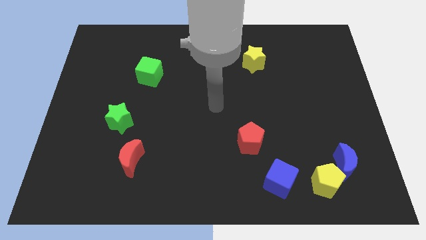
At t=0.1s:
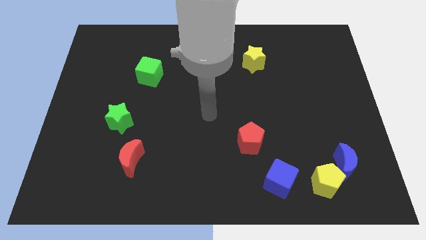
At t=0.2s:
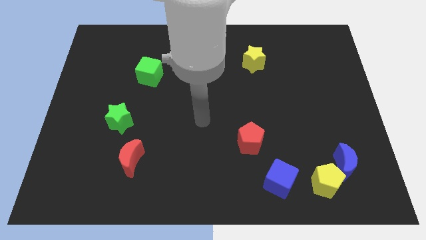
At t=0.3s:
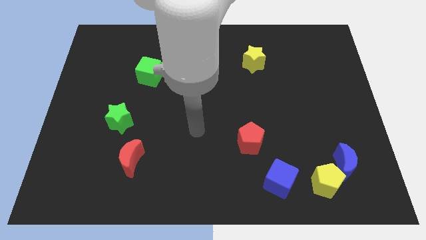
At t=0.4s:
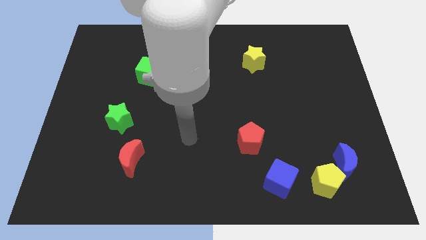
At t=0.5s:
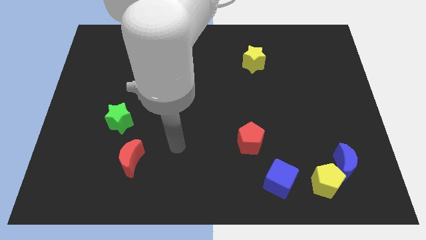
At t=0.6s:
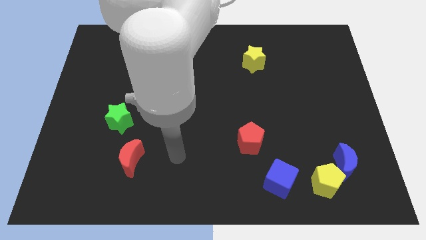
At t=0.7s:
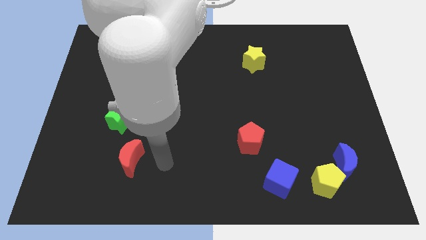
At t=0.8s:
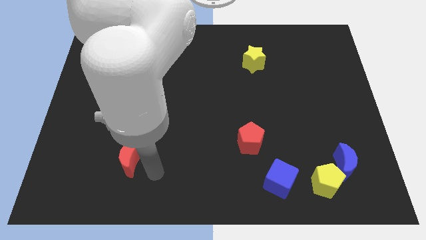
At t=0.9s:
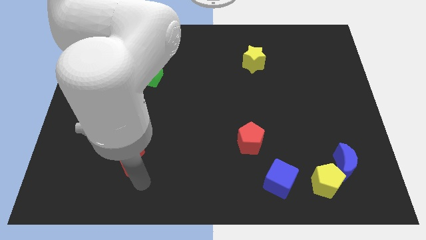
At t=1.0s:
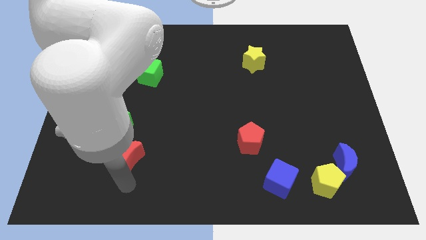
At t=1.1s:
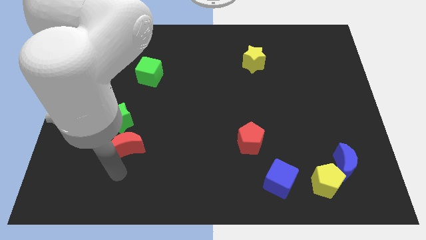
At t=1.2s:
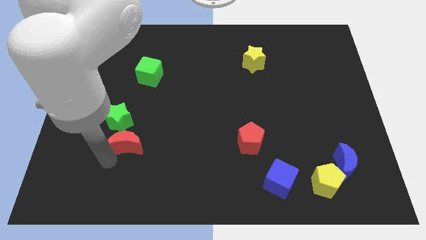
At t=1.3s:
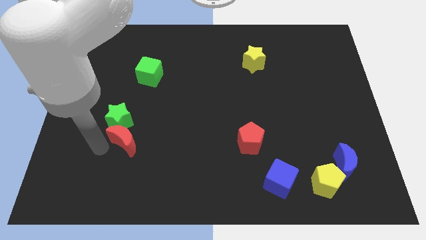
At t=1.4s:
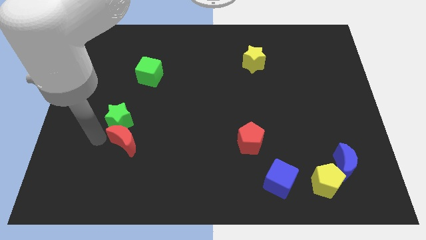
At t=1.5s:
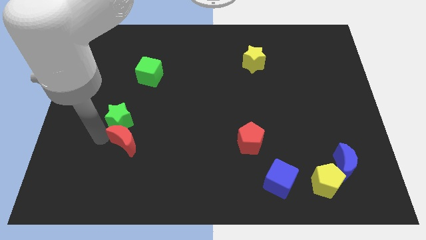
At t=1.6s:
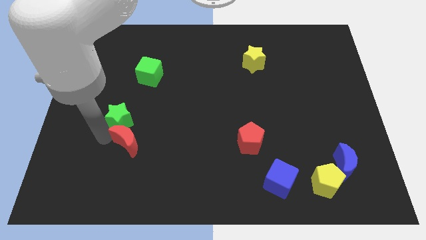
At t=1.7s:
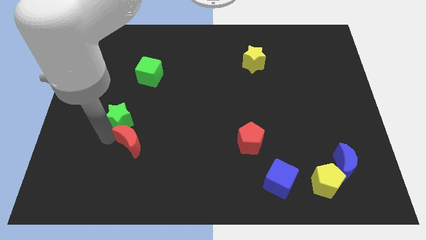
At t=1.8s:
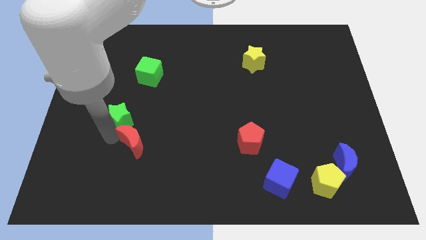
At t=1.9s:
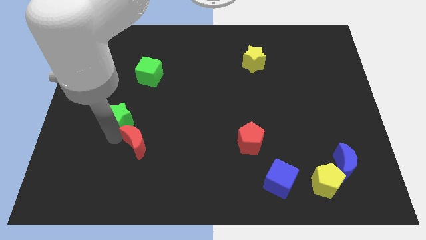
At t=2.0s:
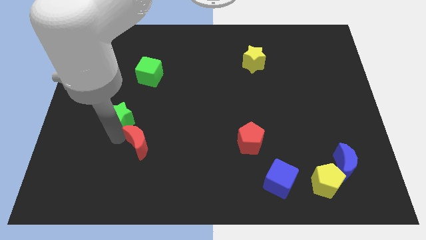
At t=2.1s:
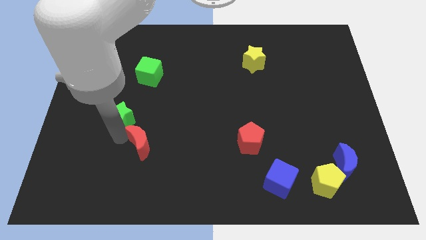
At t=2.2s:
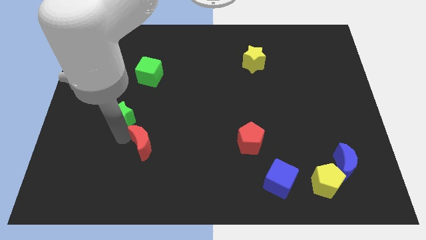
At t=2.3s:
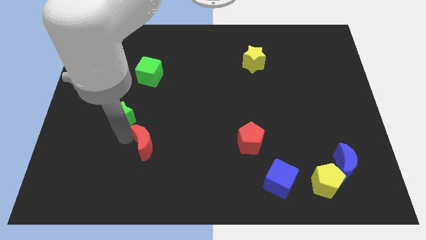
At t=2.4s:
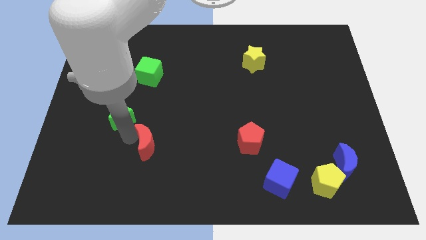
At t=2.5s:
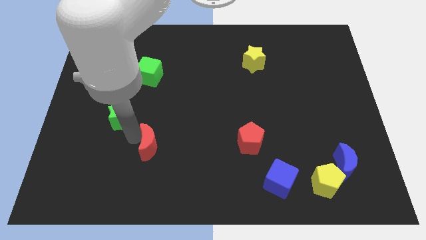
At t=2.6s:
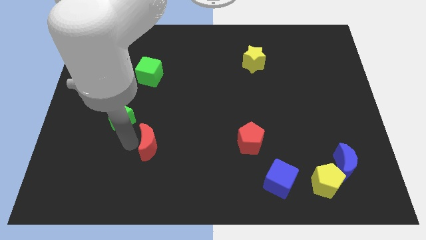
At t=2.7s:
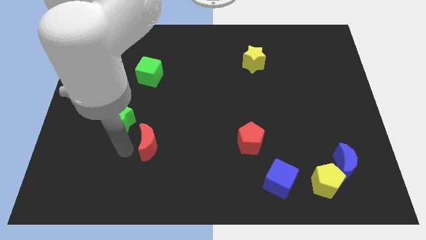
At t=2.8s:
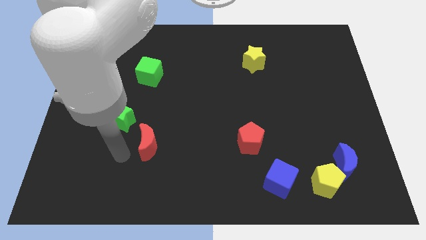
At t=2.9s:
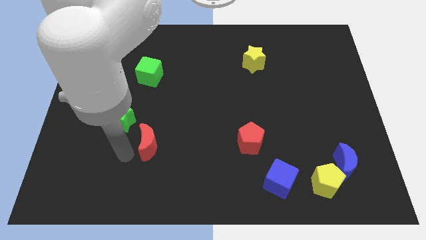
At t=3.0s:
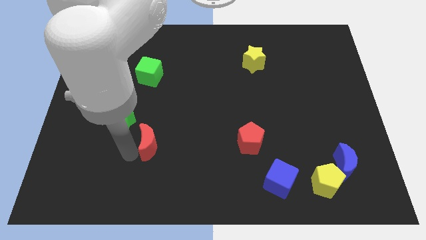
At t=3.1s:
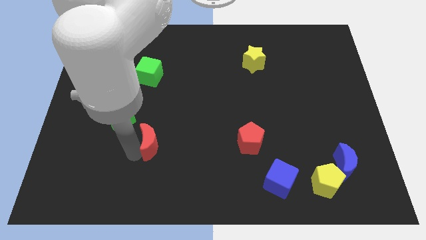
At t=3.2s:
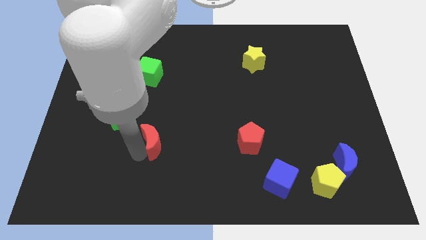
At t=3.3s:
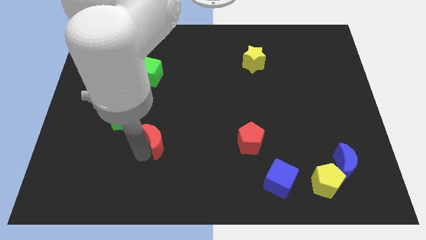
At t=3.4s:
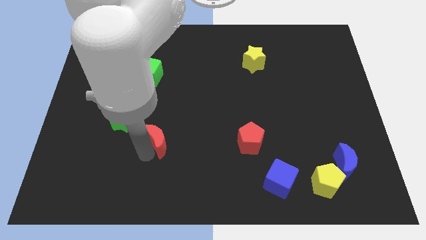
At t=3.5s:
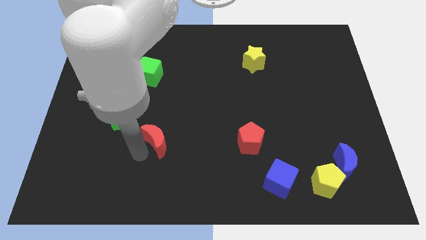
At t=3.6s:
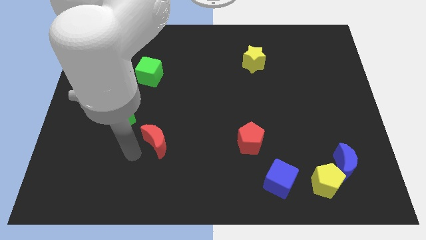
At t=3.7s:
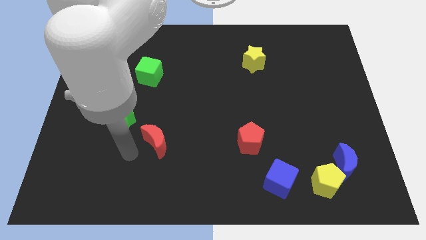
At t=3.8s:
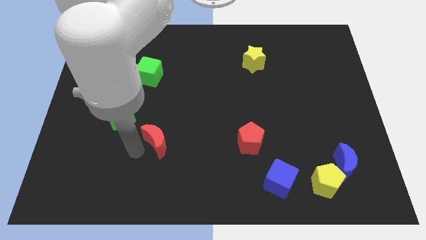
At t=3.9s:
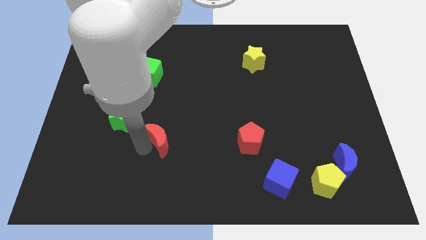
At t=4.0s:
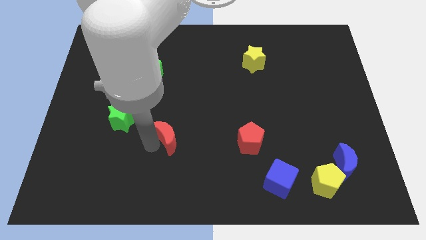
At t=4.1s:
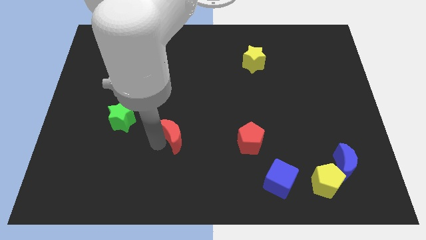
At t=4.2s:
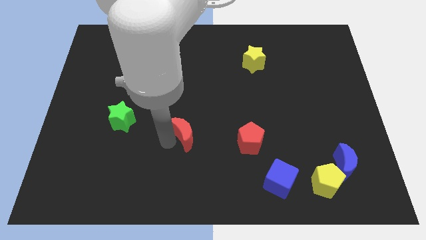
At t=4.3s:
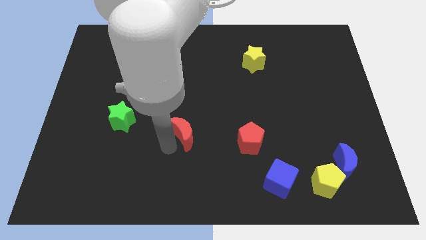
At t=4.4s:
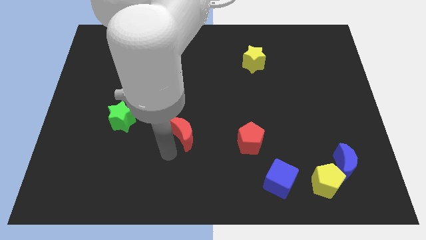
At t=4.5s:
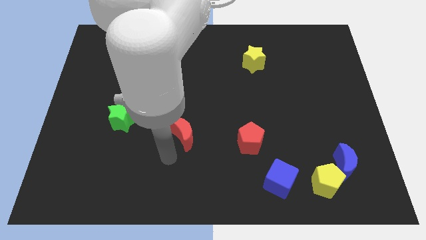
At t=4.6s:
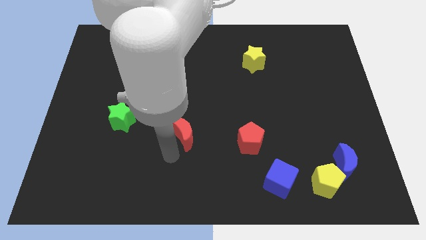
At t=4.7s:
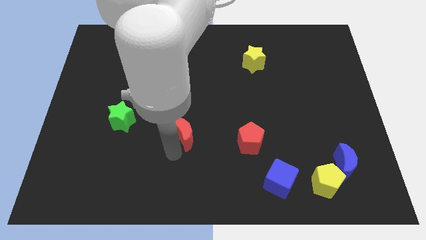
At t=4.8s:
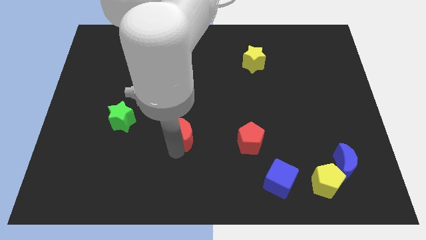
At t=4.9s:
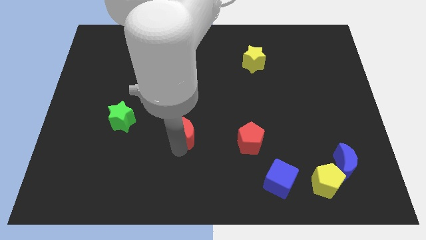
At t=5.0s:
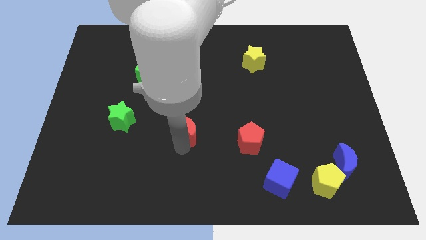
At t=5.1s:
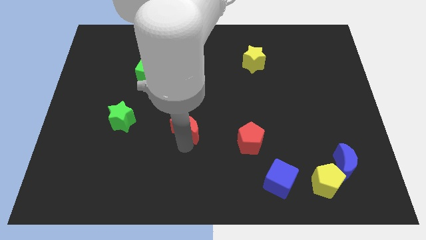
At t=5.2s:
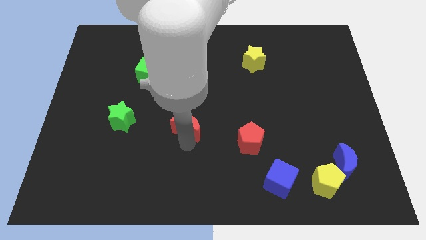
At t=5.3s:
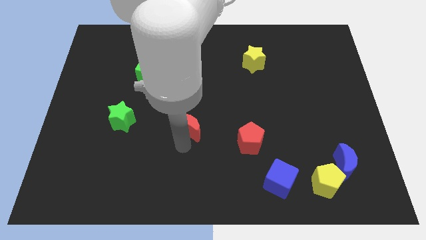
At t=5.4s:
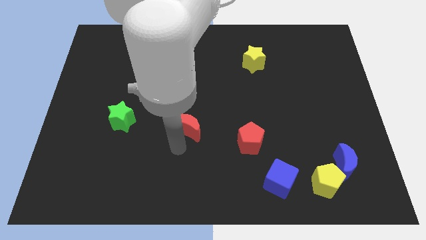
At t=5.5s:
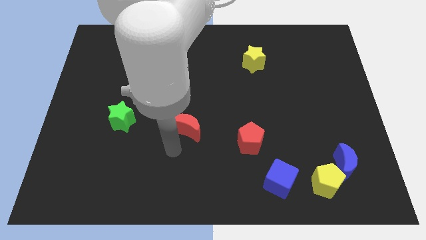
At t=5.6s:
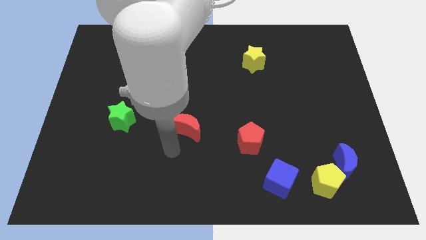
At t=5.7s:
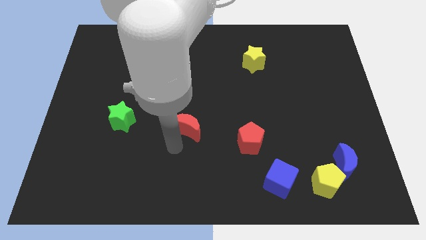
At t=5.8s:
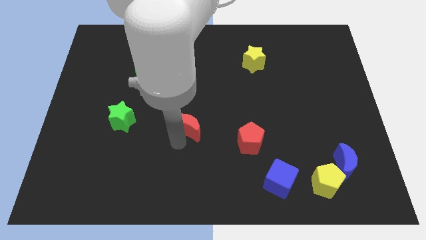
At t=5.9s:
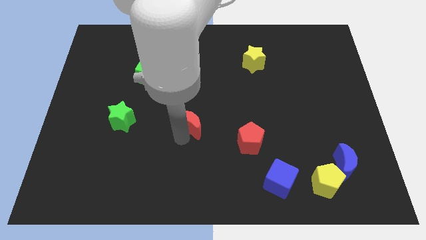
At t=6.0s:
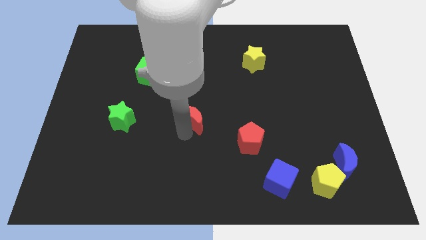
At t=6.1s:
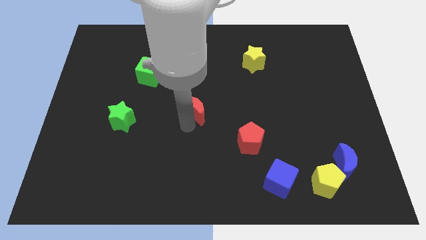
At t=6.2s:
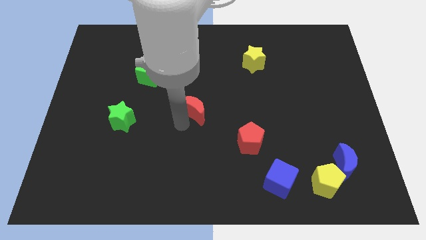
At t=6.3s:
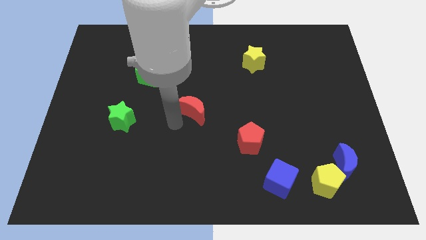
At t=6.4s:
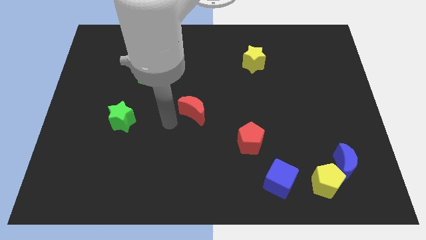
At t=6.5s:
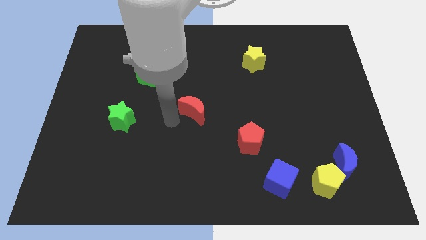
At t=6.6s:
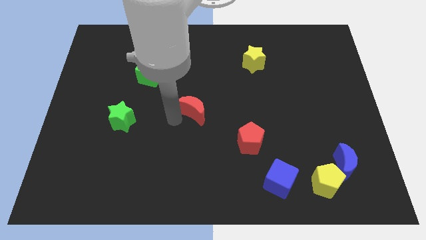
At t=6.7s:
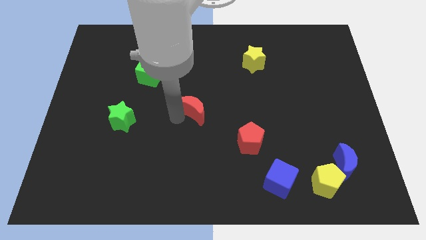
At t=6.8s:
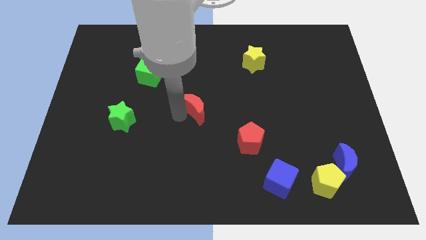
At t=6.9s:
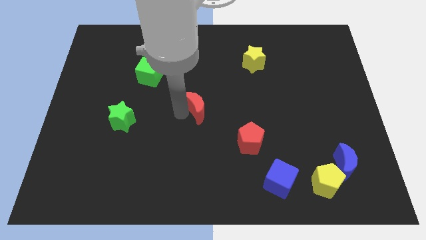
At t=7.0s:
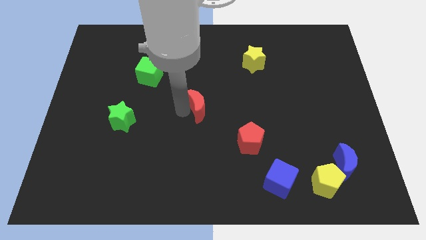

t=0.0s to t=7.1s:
push the red moon up and to the right

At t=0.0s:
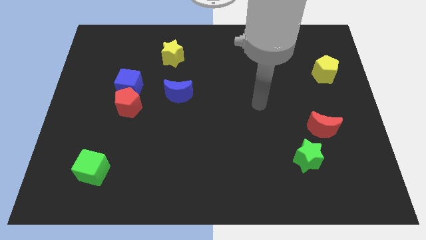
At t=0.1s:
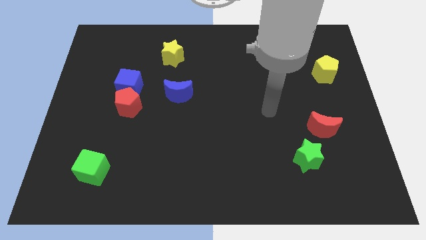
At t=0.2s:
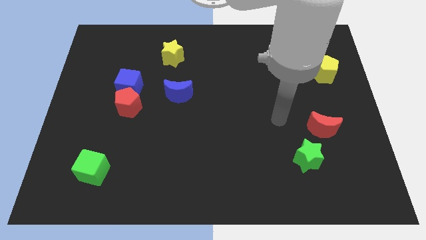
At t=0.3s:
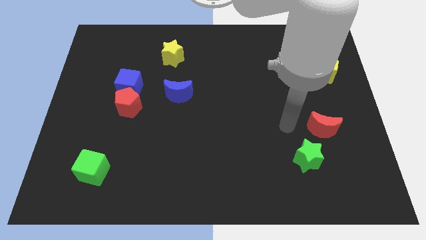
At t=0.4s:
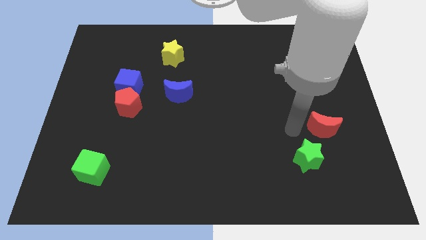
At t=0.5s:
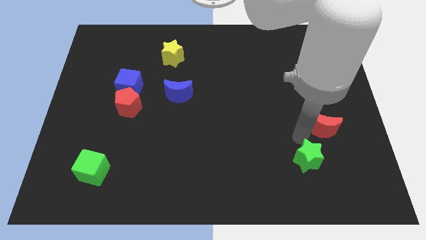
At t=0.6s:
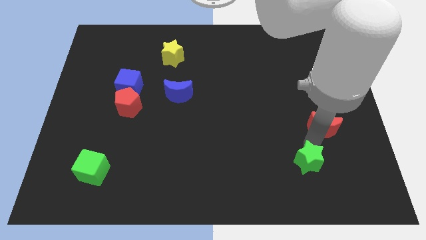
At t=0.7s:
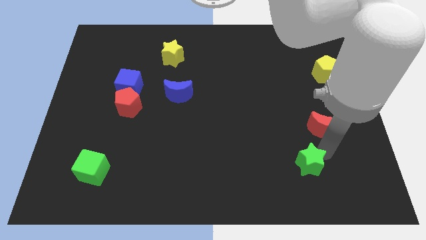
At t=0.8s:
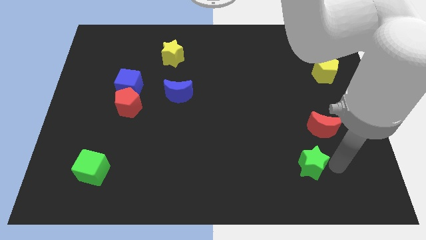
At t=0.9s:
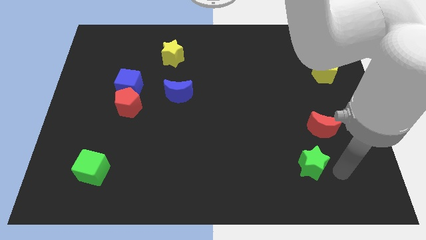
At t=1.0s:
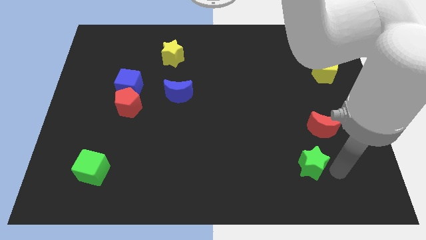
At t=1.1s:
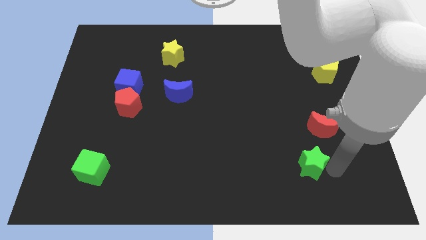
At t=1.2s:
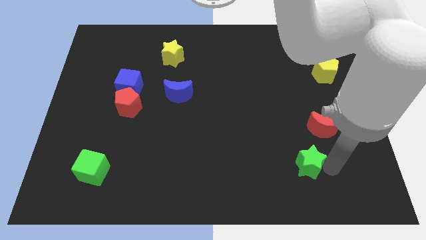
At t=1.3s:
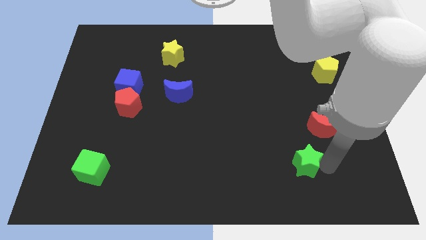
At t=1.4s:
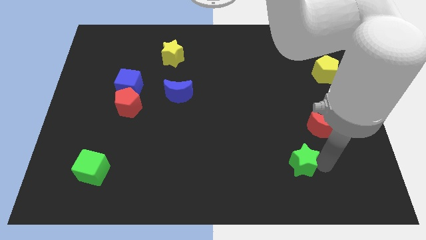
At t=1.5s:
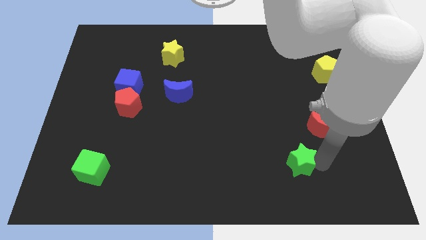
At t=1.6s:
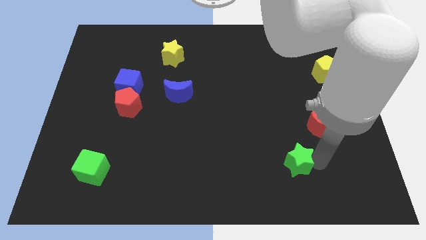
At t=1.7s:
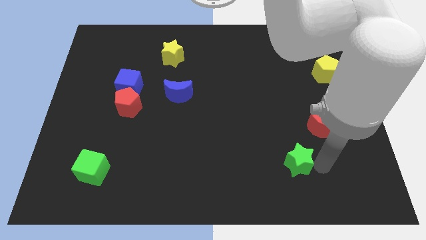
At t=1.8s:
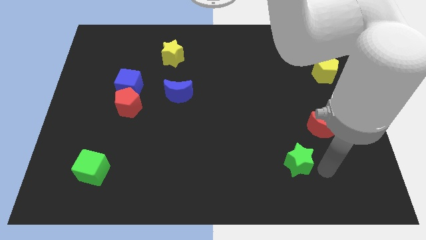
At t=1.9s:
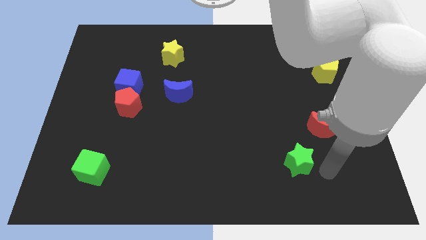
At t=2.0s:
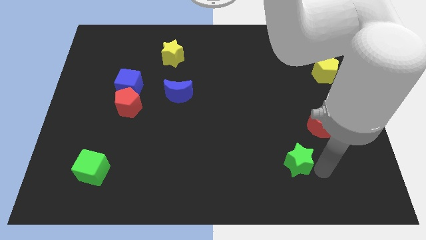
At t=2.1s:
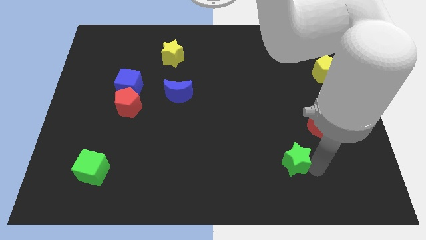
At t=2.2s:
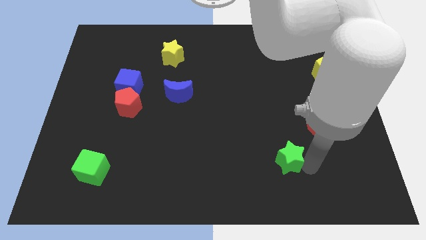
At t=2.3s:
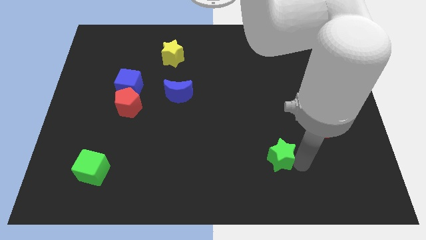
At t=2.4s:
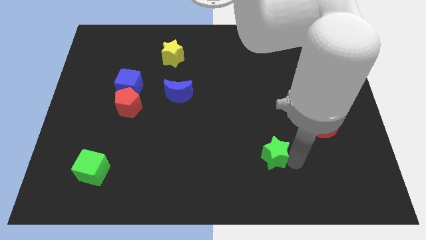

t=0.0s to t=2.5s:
slightly push the green star to the left
